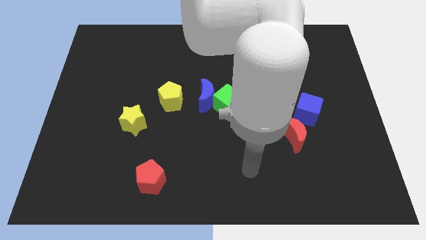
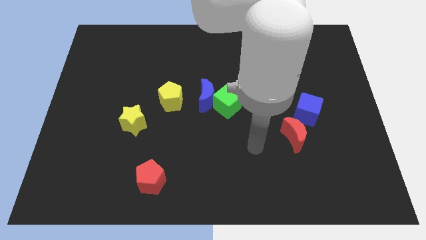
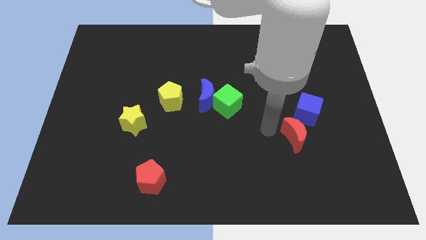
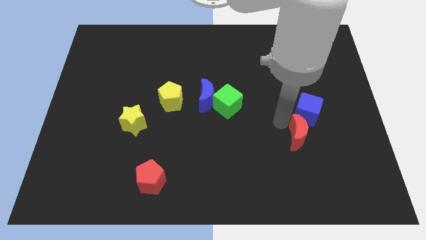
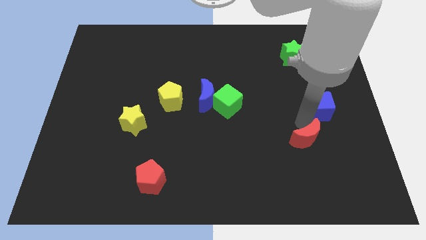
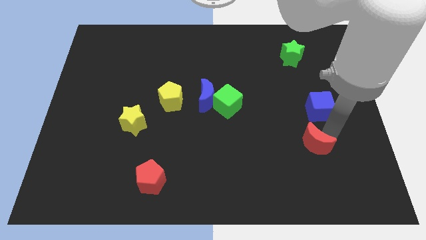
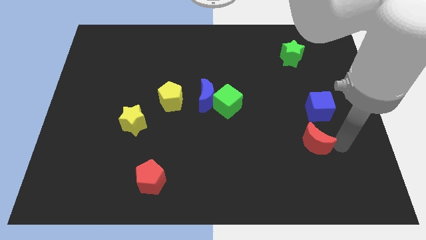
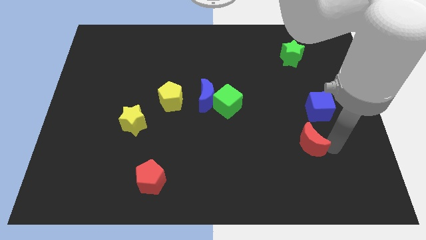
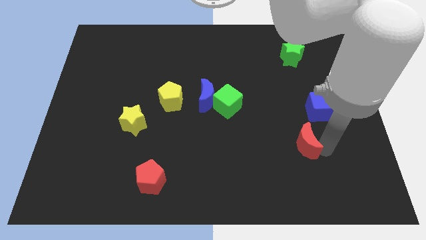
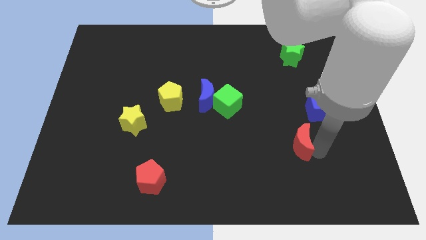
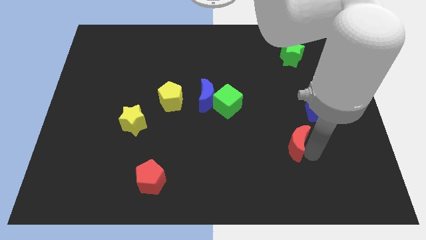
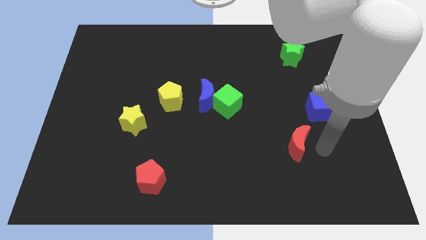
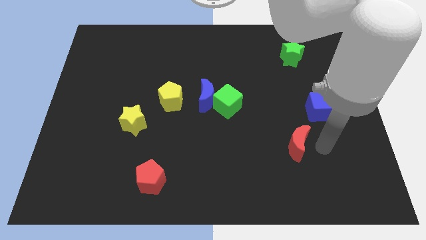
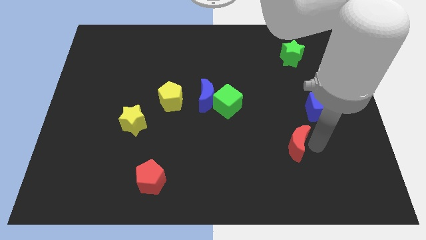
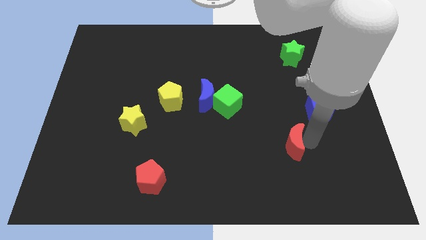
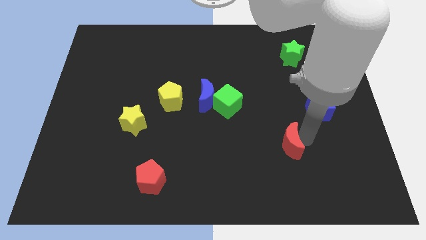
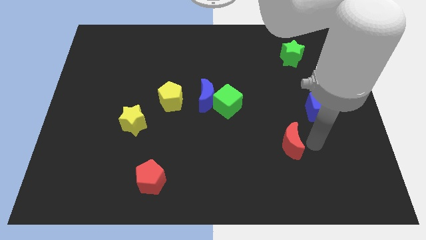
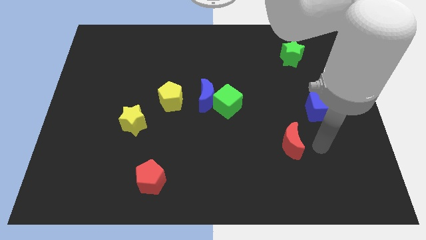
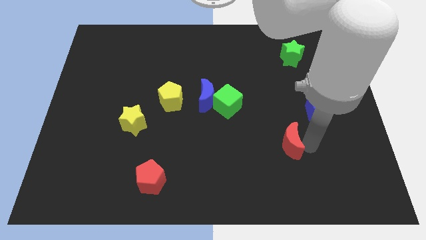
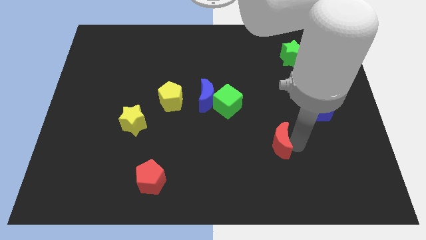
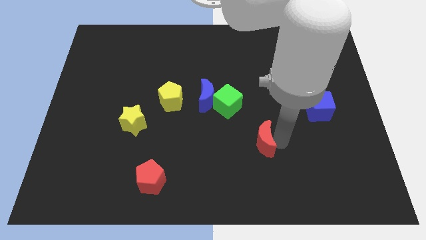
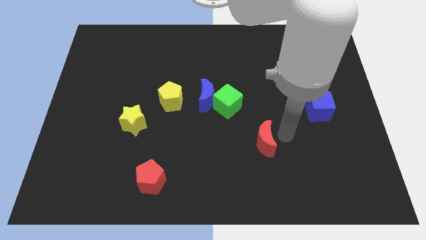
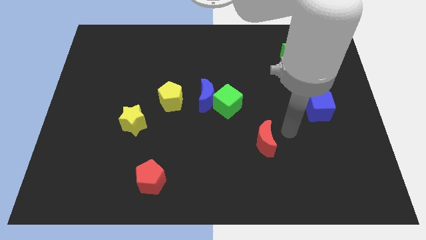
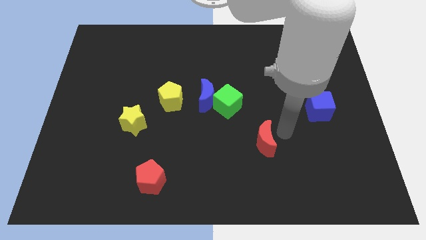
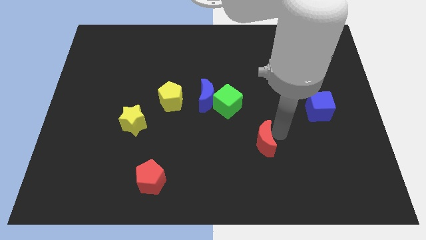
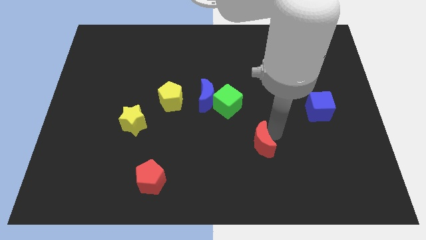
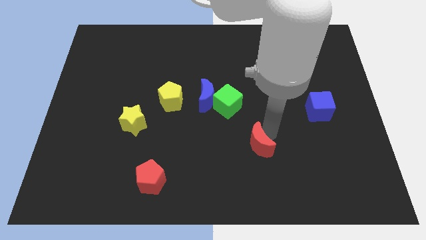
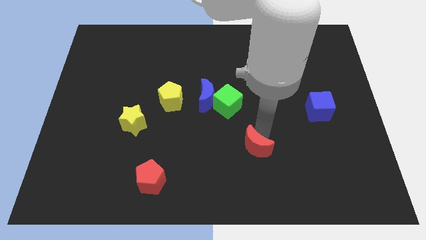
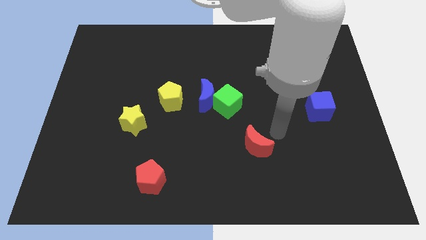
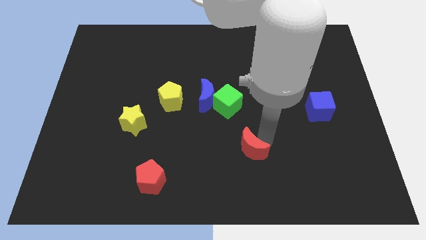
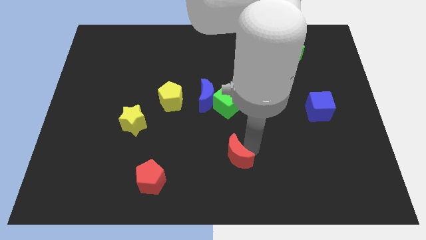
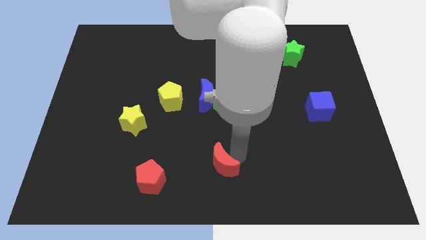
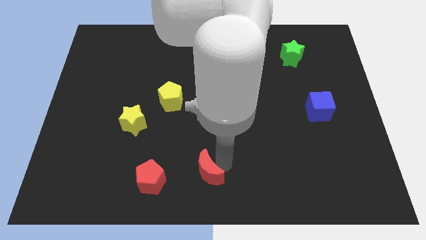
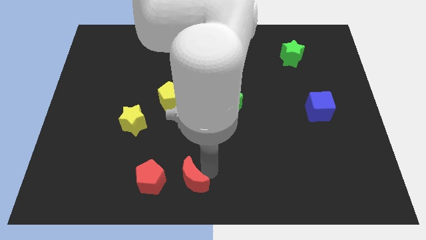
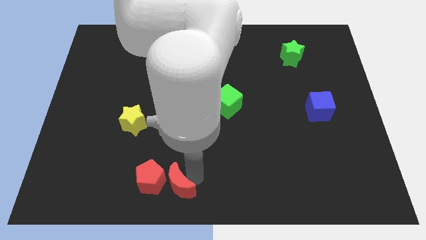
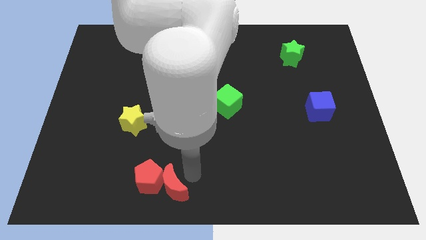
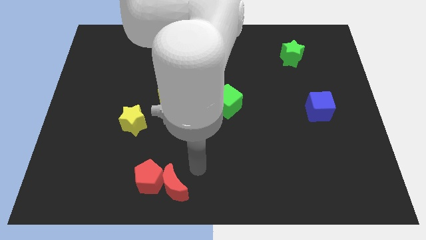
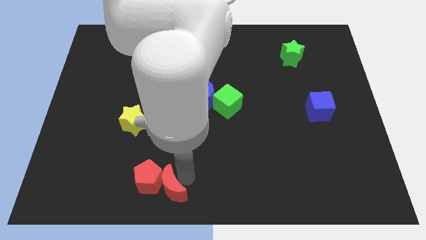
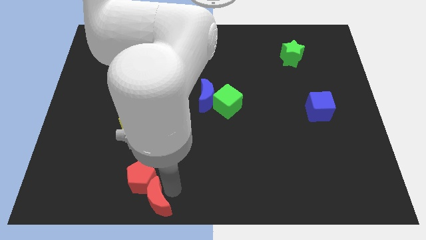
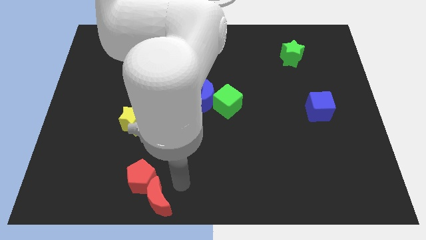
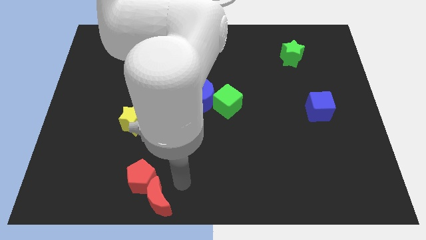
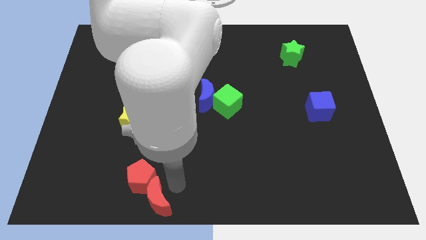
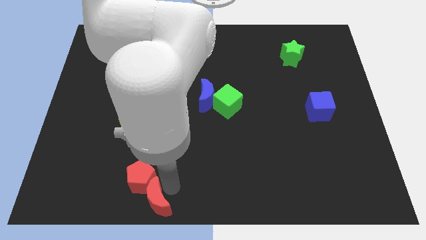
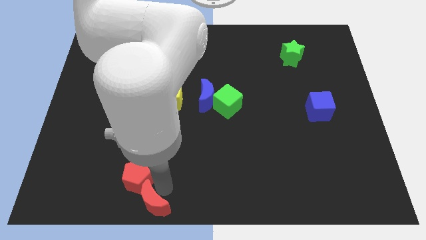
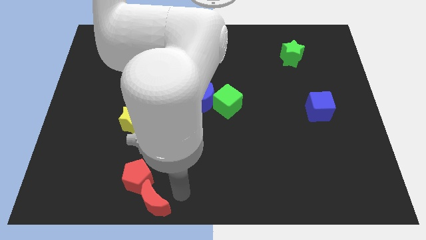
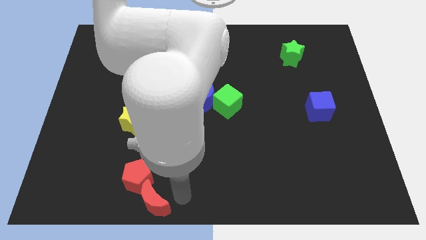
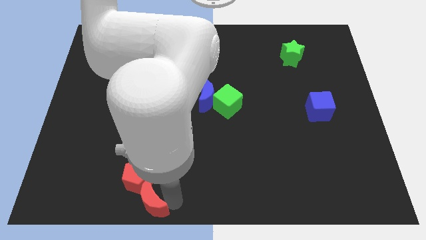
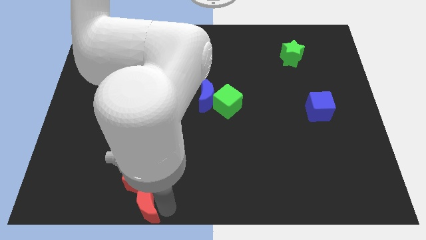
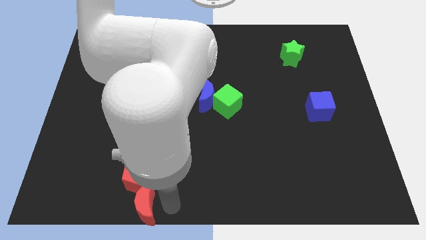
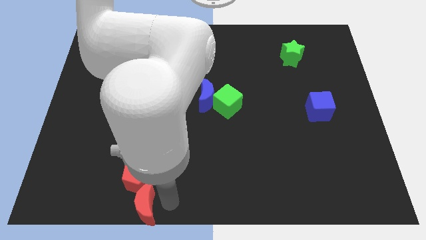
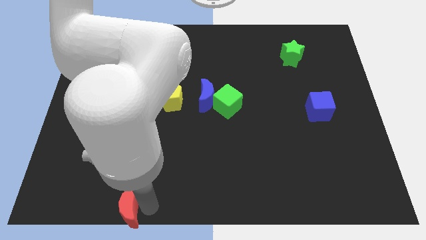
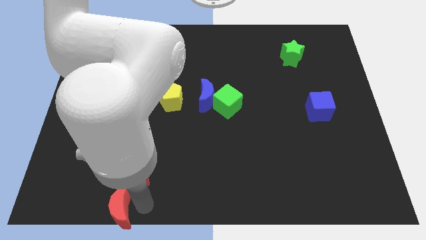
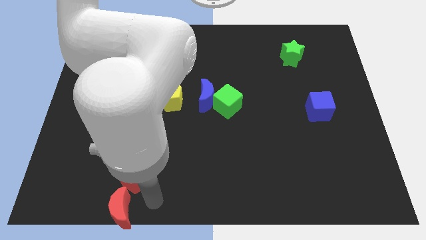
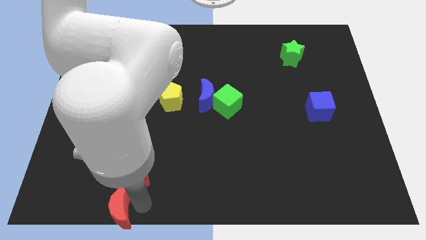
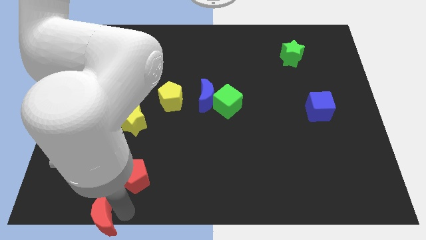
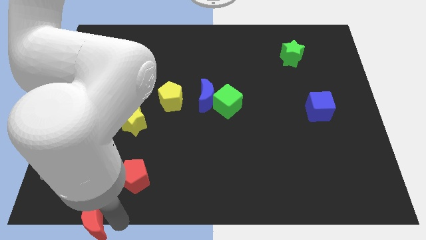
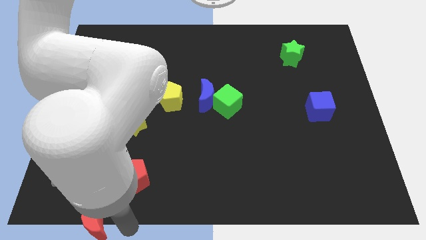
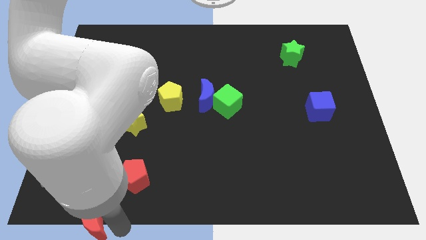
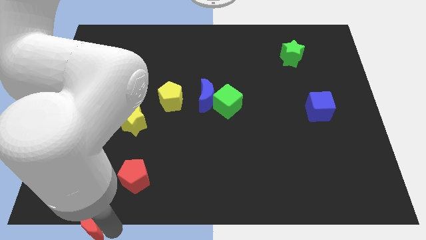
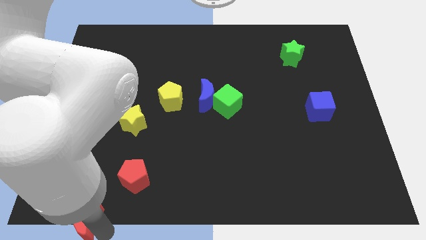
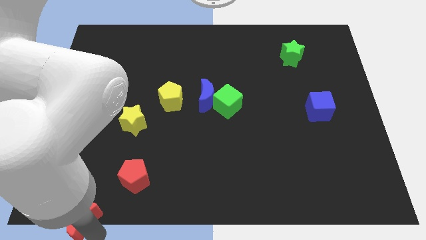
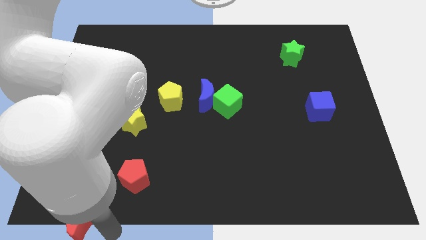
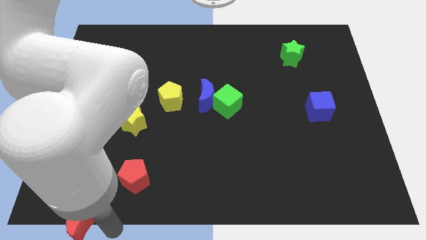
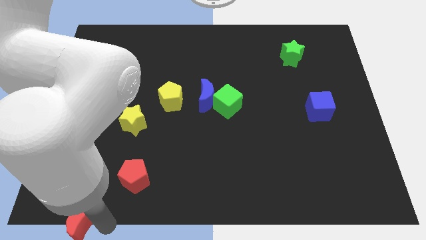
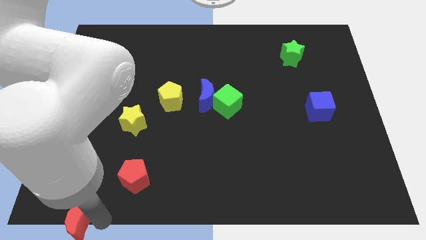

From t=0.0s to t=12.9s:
put the red moon to the bottom left

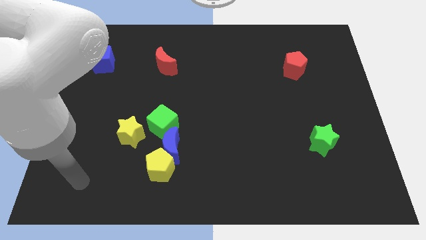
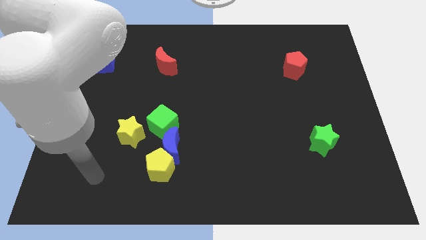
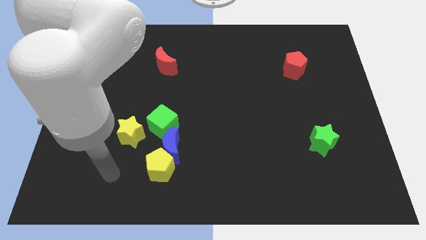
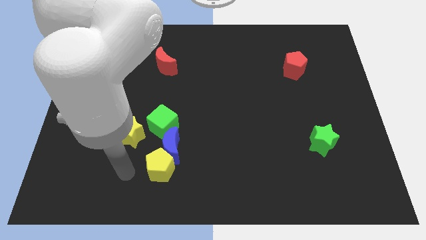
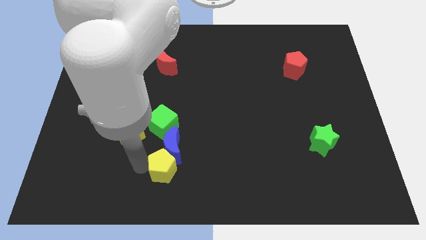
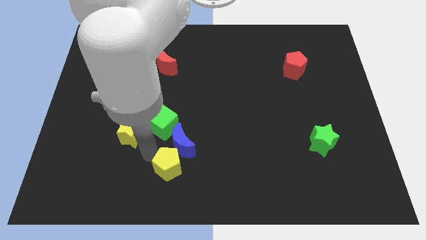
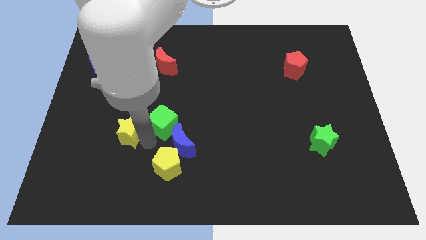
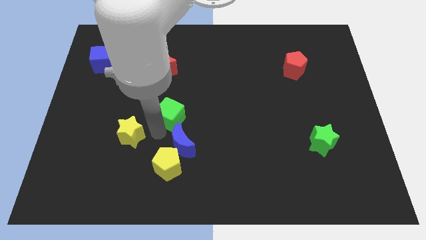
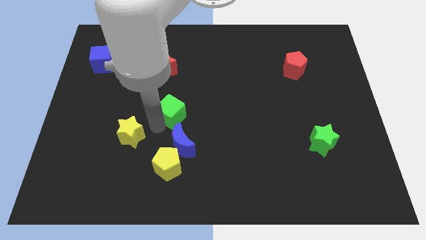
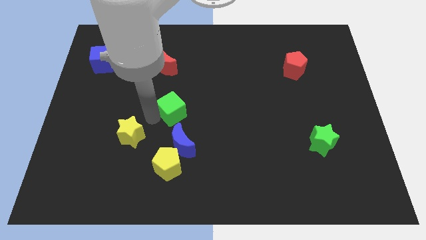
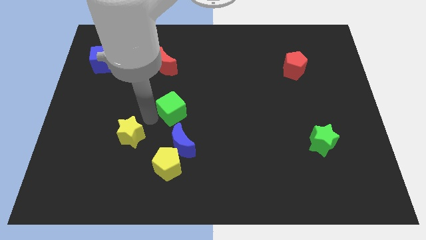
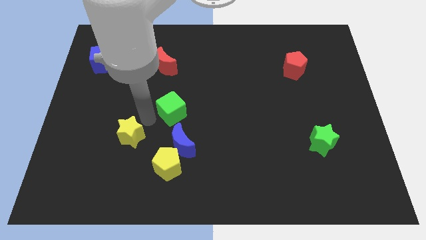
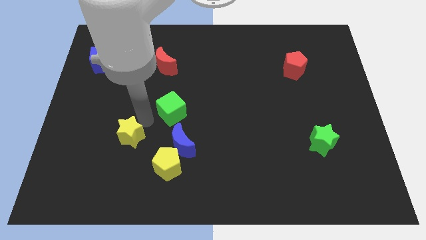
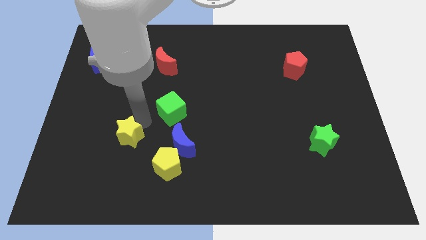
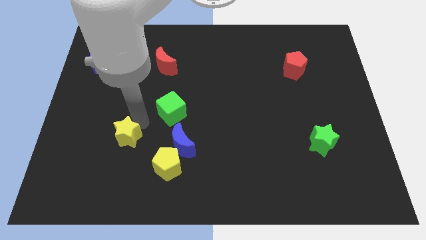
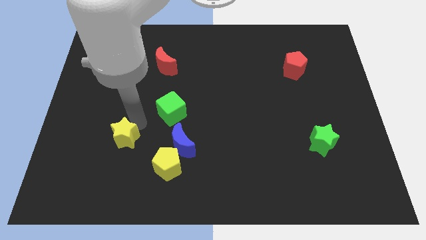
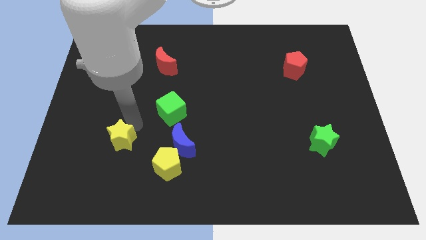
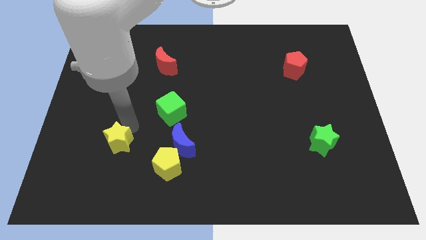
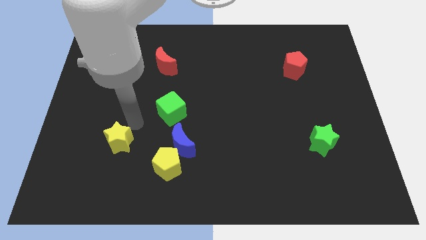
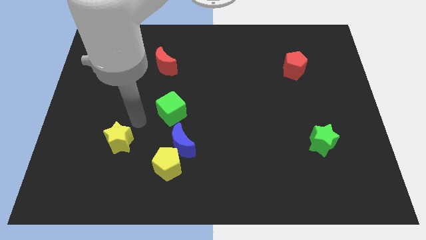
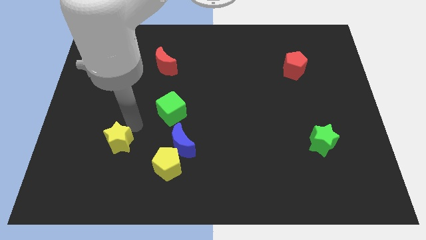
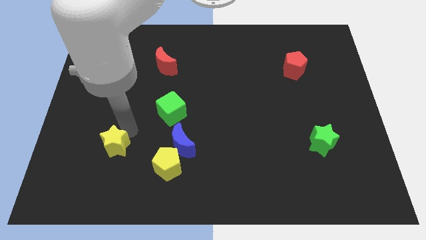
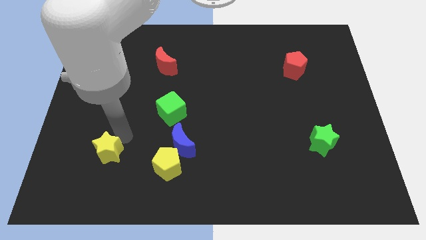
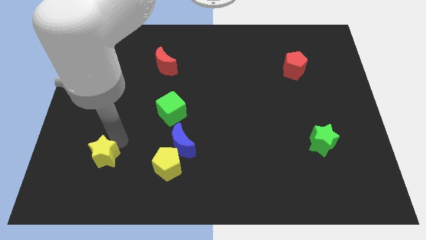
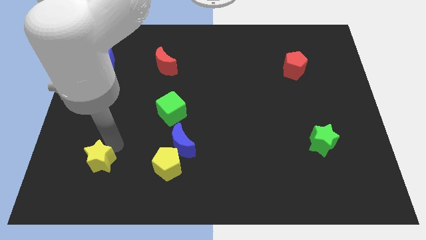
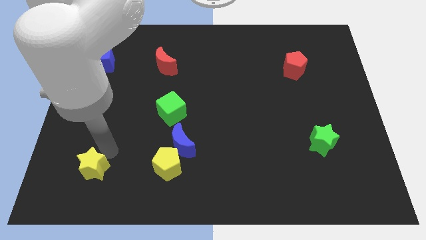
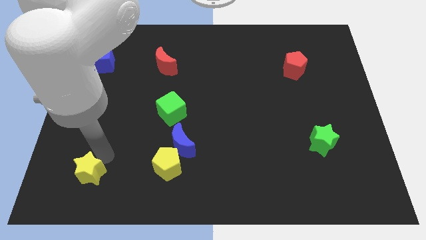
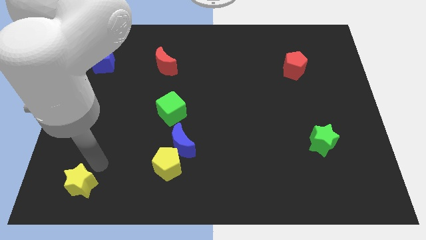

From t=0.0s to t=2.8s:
put the yellow star to the bottom left of the board
